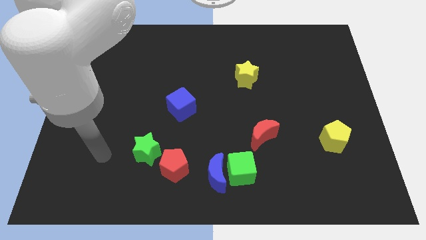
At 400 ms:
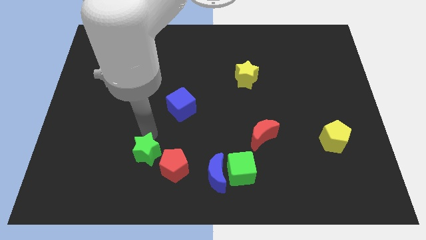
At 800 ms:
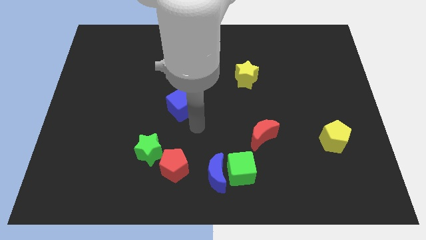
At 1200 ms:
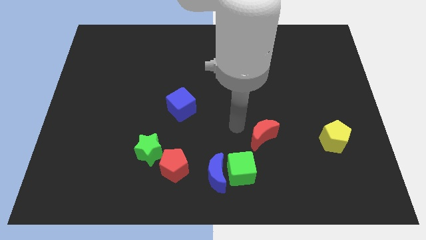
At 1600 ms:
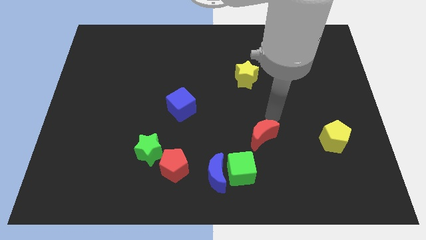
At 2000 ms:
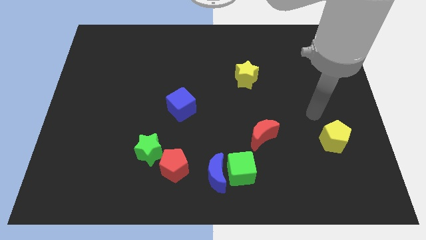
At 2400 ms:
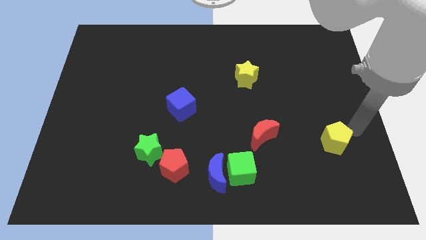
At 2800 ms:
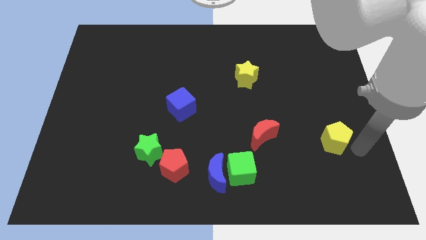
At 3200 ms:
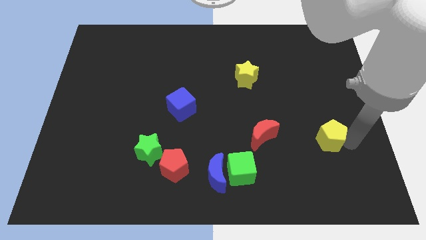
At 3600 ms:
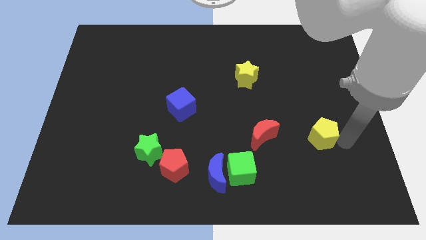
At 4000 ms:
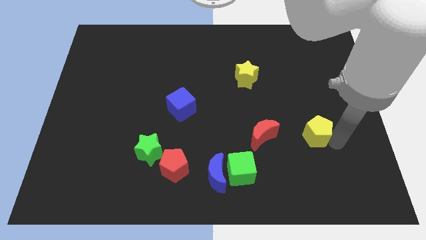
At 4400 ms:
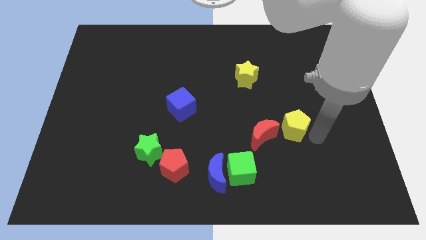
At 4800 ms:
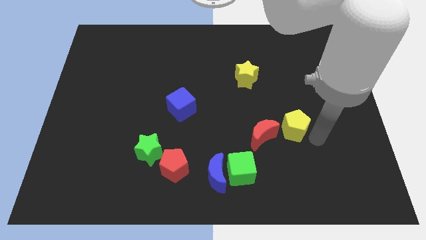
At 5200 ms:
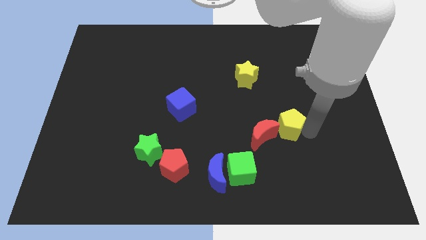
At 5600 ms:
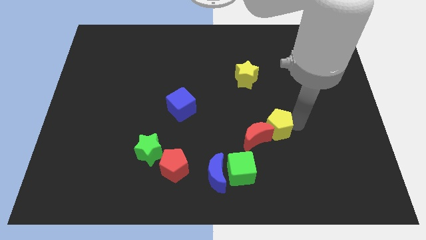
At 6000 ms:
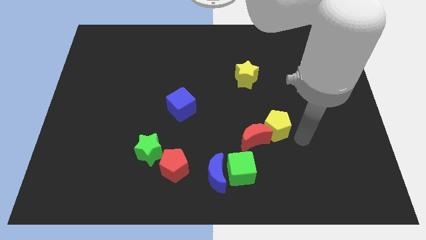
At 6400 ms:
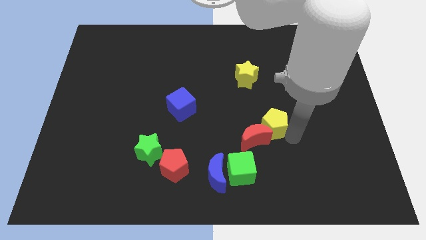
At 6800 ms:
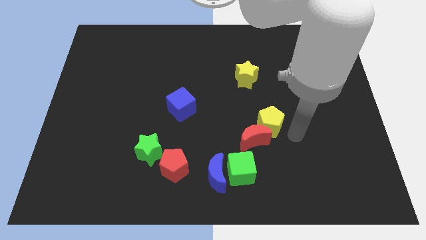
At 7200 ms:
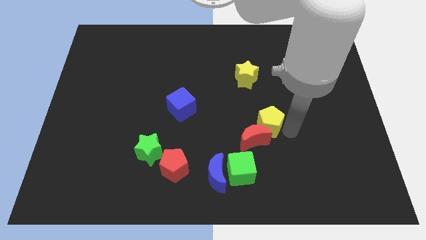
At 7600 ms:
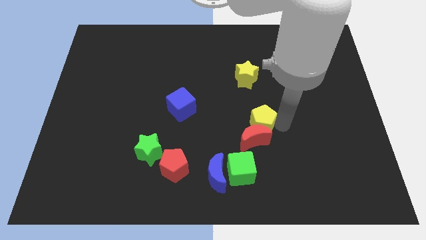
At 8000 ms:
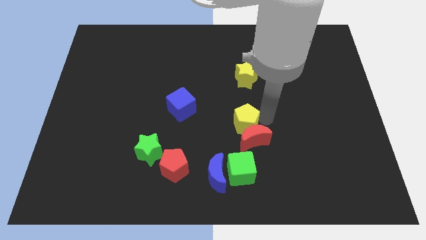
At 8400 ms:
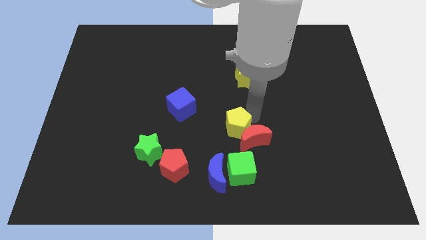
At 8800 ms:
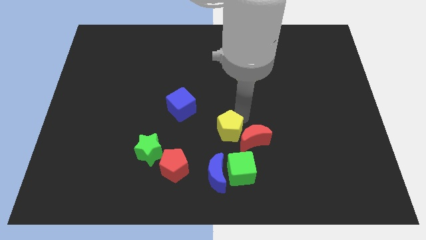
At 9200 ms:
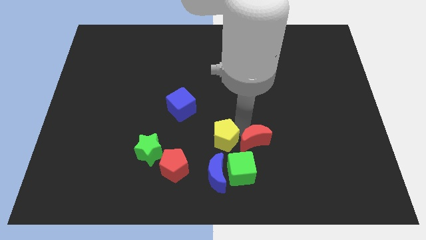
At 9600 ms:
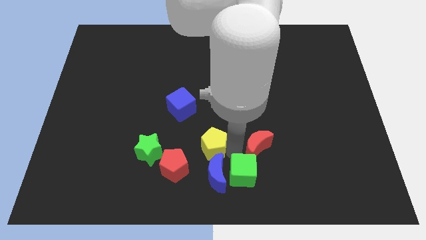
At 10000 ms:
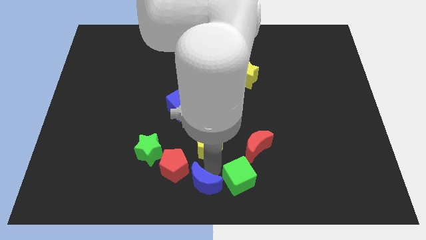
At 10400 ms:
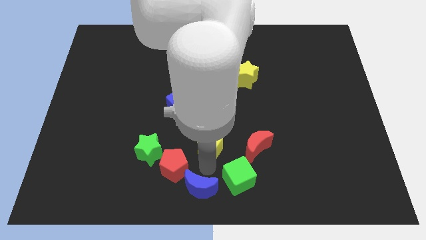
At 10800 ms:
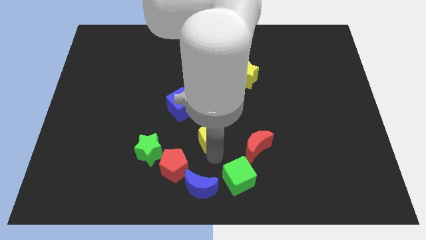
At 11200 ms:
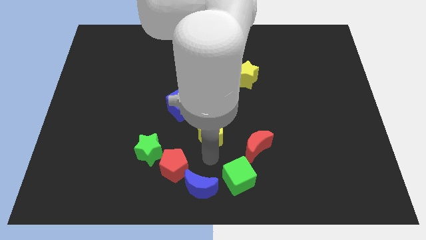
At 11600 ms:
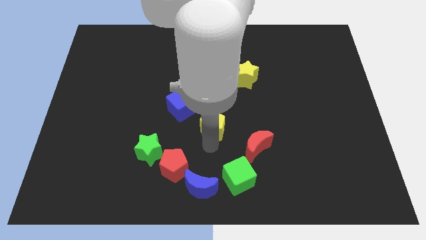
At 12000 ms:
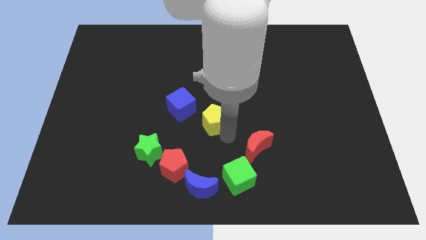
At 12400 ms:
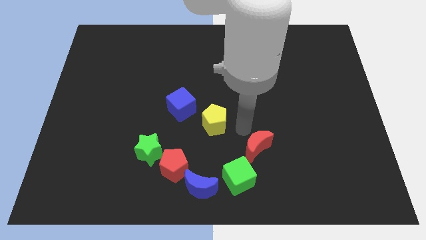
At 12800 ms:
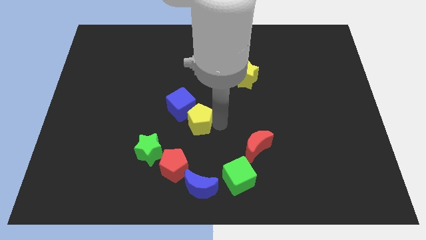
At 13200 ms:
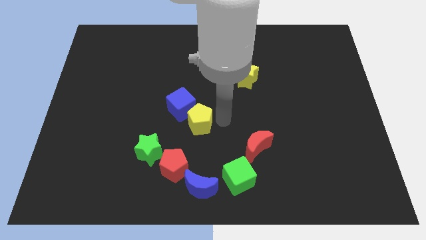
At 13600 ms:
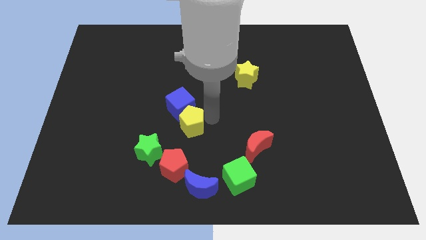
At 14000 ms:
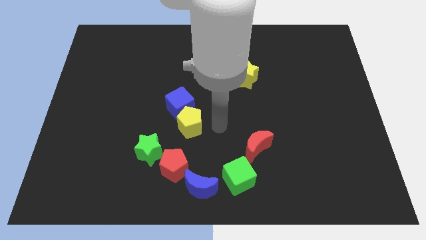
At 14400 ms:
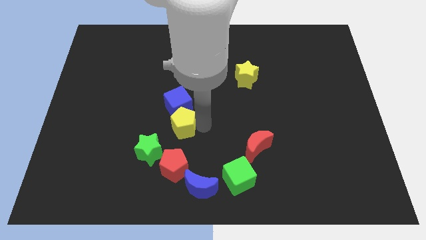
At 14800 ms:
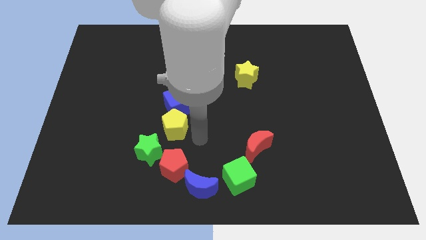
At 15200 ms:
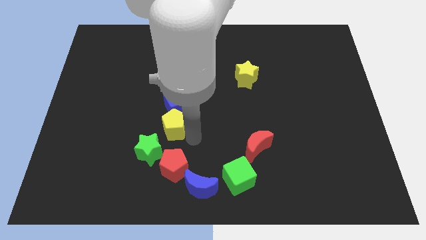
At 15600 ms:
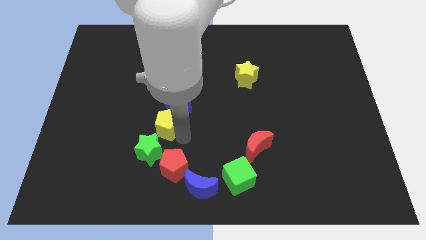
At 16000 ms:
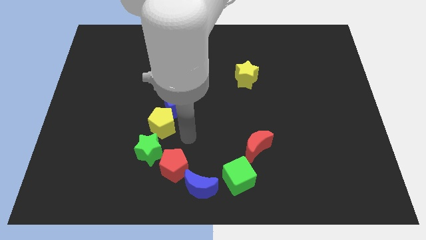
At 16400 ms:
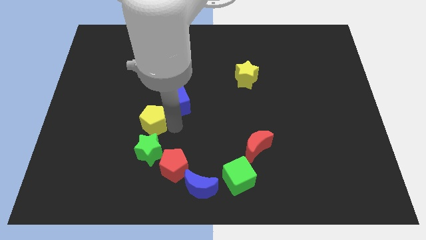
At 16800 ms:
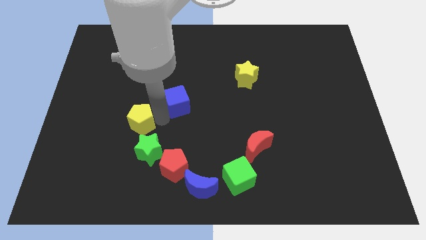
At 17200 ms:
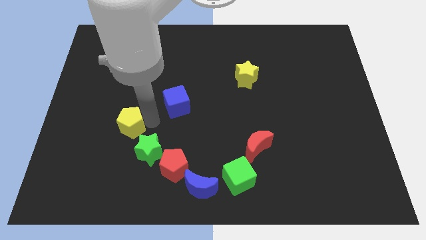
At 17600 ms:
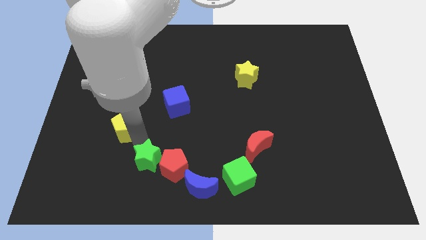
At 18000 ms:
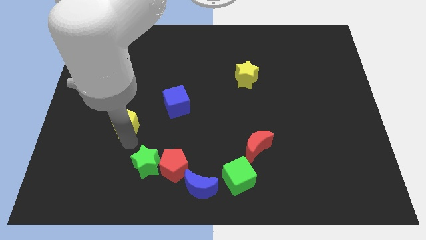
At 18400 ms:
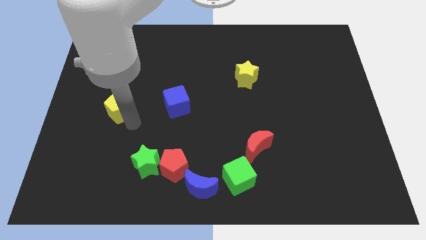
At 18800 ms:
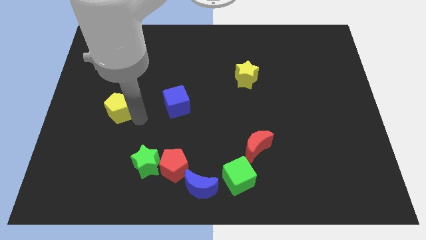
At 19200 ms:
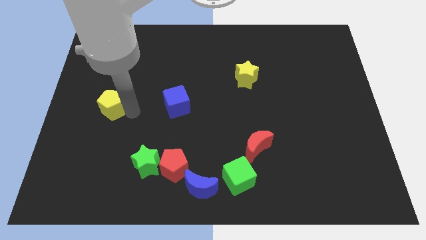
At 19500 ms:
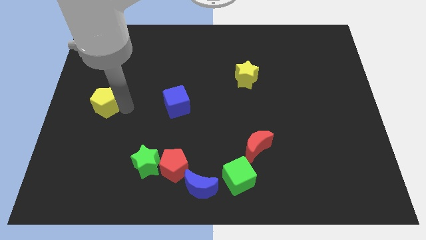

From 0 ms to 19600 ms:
push the yellow pentagon to the left side of the board

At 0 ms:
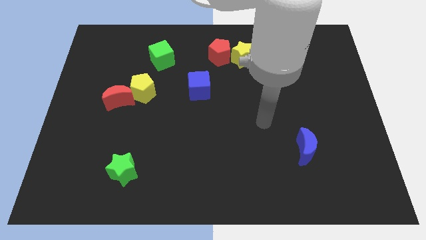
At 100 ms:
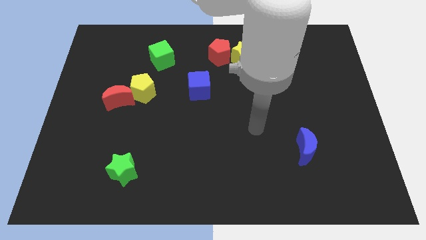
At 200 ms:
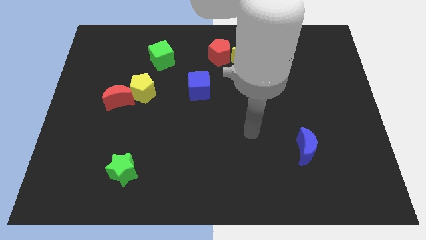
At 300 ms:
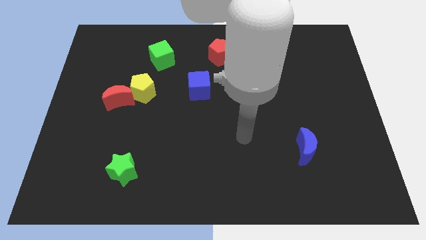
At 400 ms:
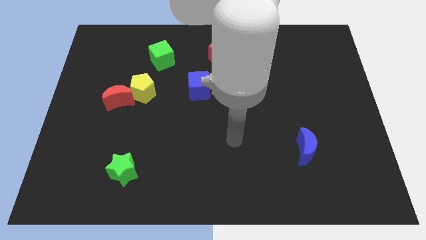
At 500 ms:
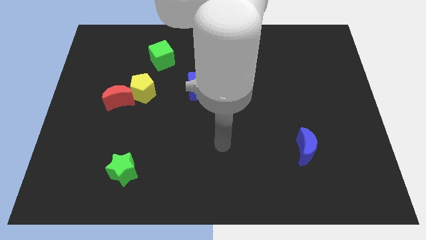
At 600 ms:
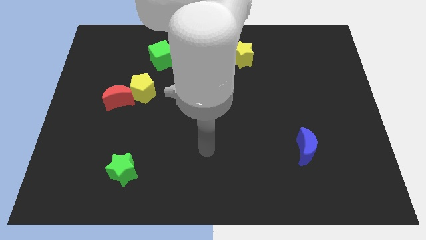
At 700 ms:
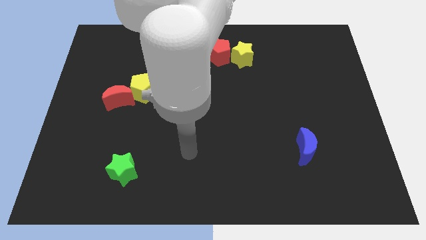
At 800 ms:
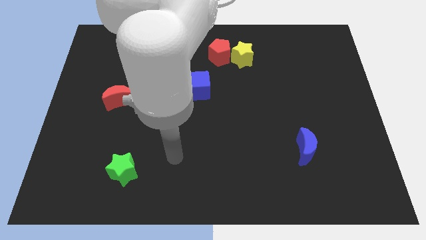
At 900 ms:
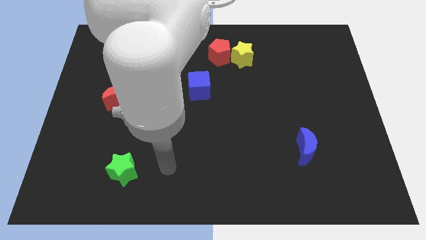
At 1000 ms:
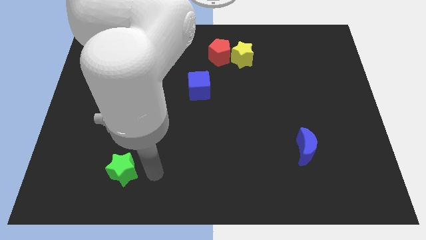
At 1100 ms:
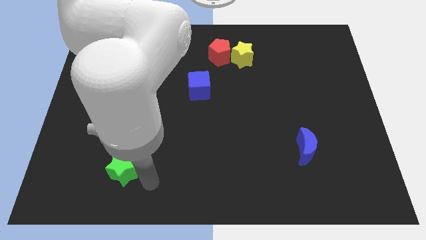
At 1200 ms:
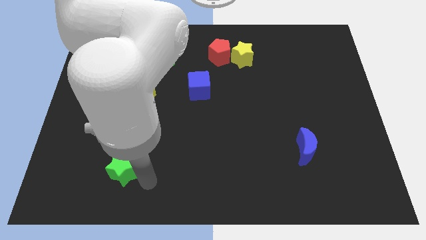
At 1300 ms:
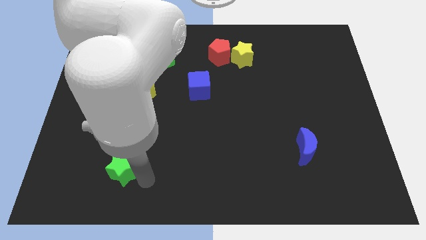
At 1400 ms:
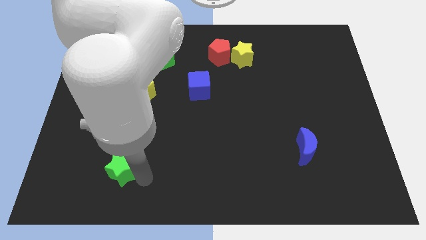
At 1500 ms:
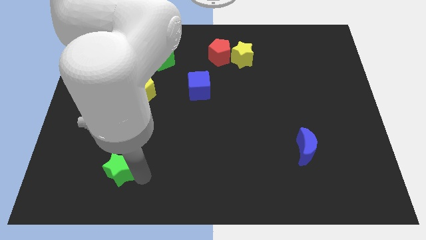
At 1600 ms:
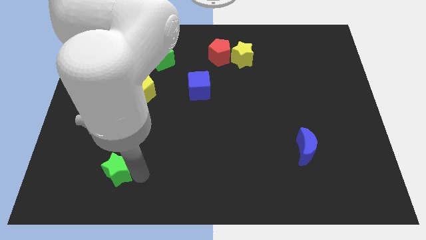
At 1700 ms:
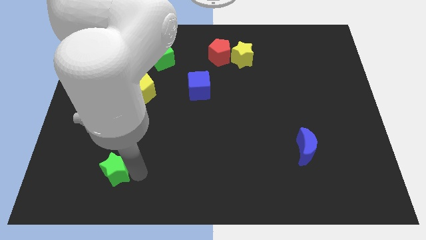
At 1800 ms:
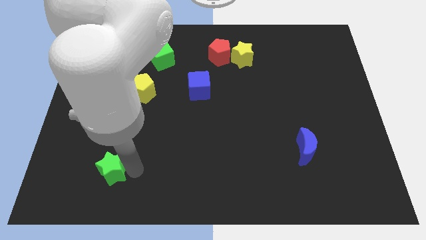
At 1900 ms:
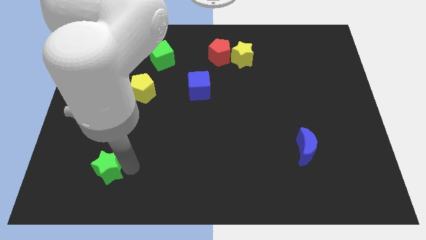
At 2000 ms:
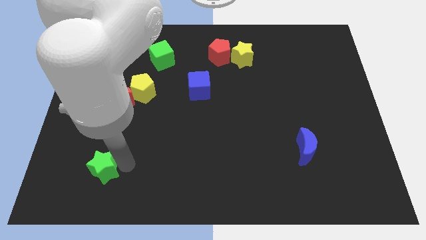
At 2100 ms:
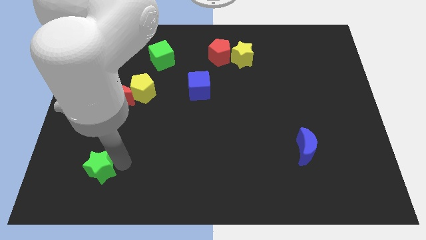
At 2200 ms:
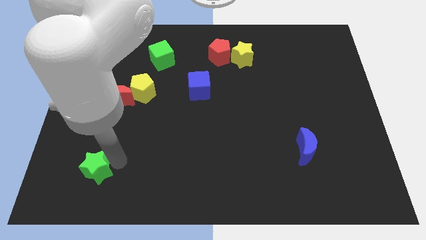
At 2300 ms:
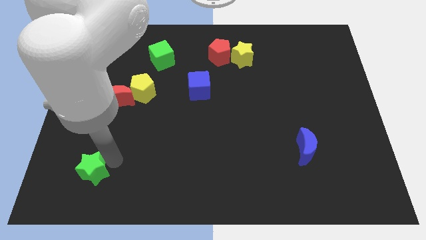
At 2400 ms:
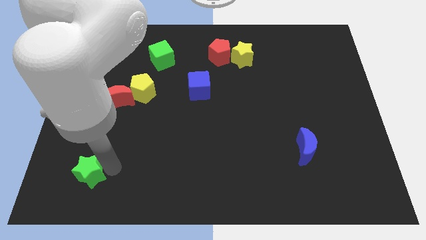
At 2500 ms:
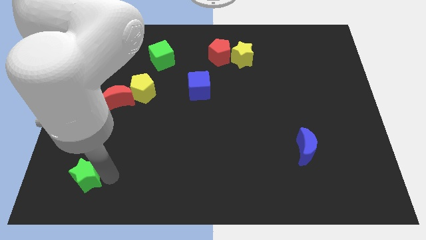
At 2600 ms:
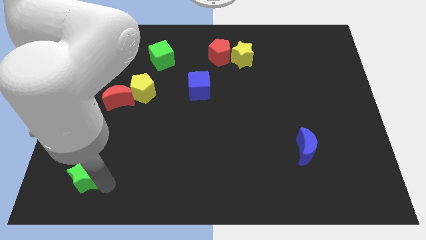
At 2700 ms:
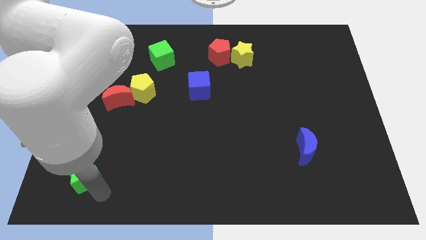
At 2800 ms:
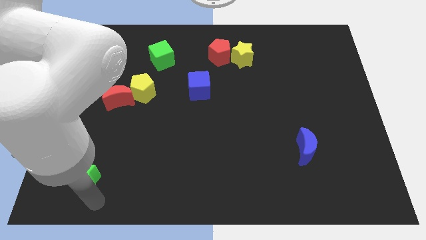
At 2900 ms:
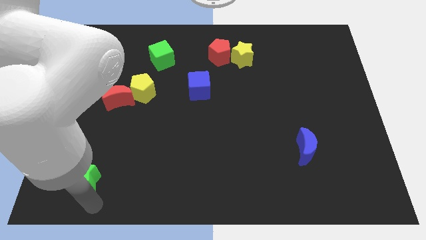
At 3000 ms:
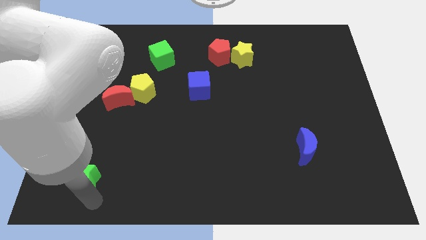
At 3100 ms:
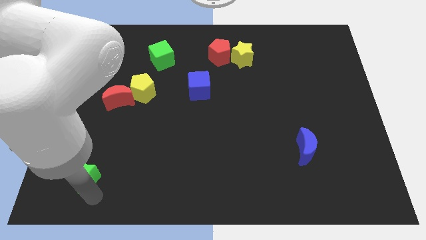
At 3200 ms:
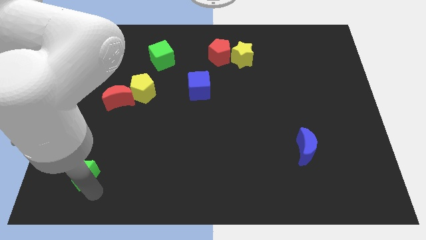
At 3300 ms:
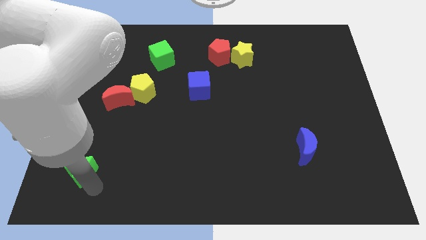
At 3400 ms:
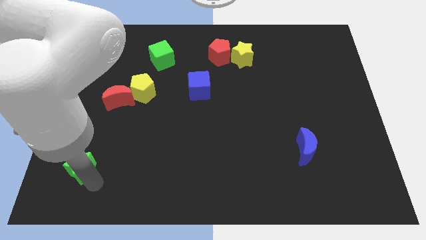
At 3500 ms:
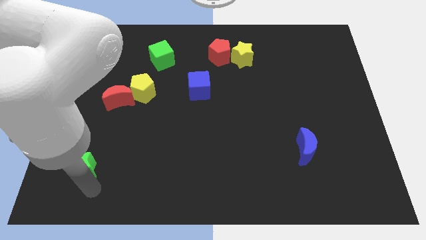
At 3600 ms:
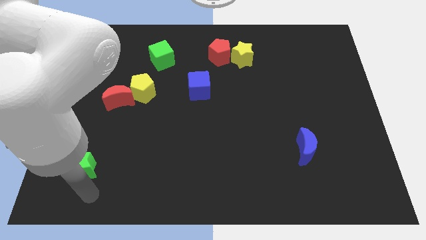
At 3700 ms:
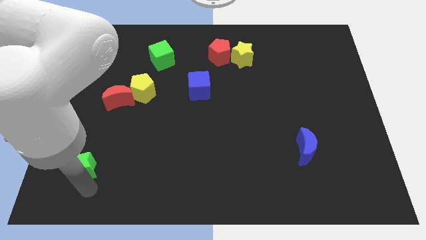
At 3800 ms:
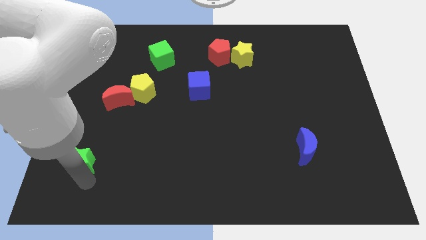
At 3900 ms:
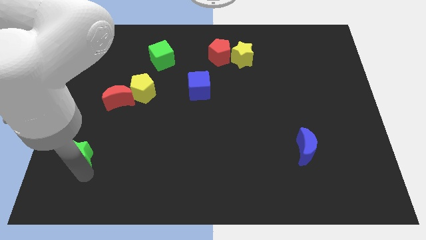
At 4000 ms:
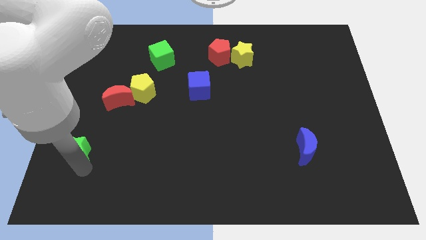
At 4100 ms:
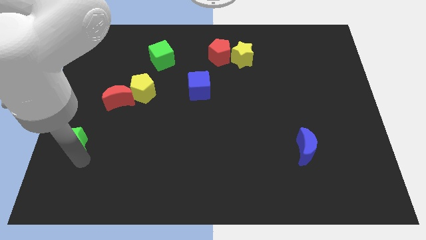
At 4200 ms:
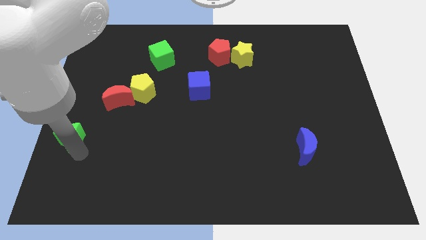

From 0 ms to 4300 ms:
put the green star to the center left
